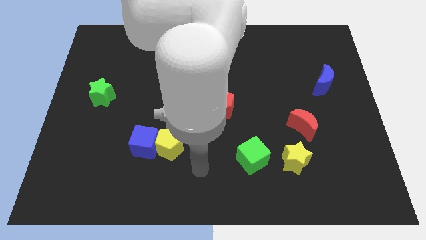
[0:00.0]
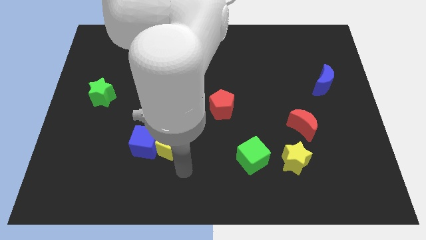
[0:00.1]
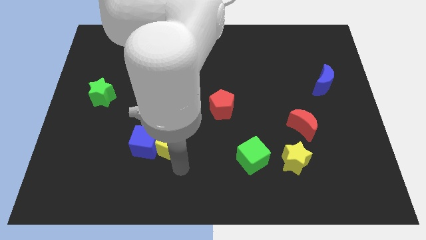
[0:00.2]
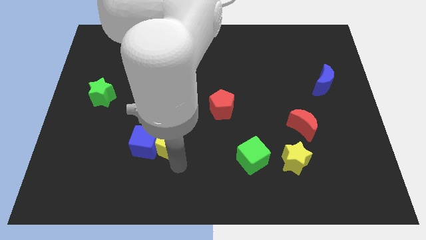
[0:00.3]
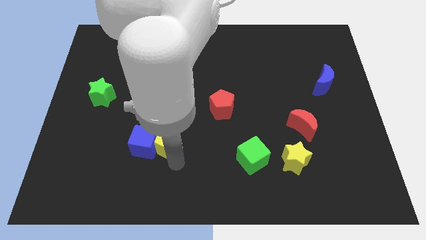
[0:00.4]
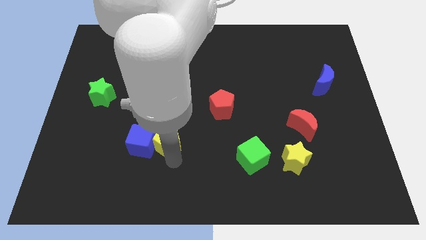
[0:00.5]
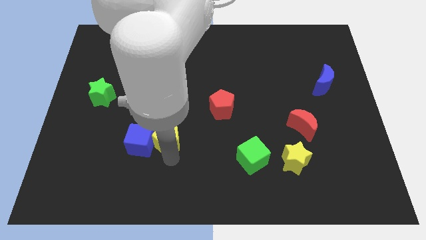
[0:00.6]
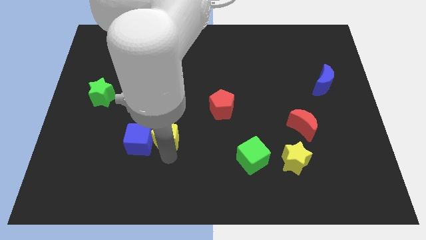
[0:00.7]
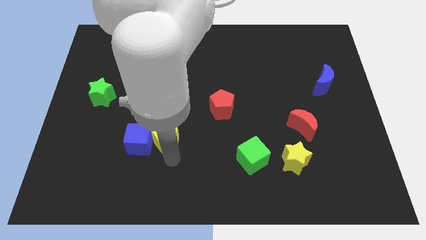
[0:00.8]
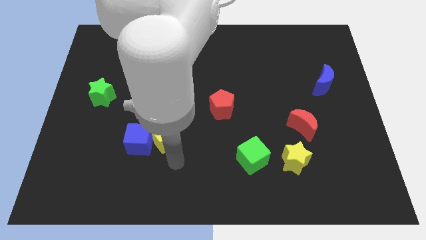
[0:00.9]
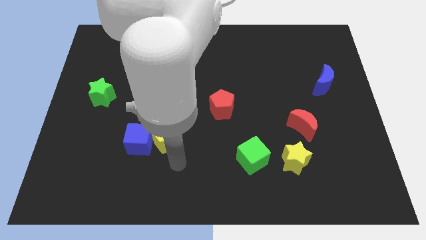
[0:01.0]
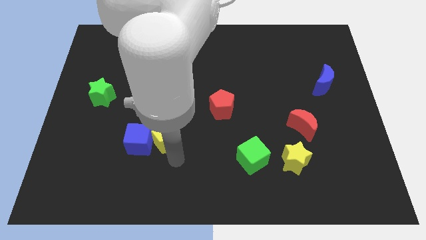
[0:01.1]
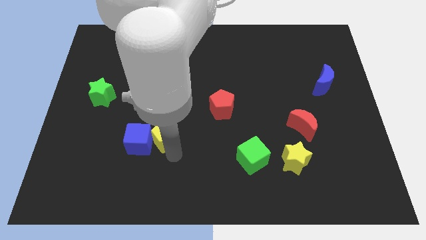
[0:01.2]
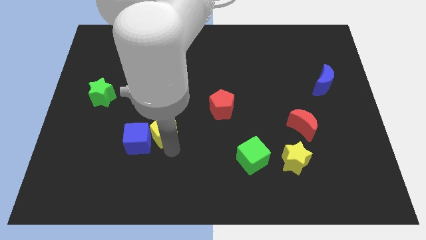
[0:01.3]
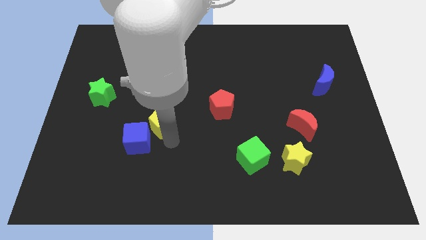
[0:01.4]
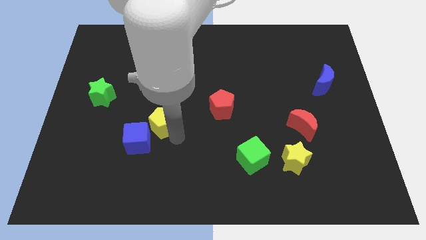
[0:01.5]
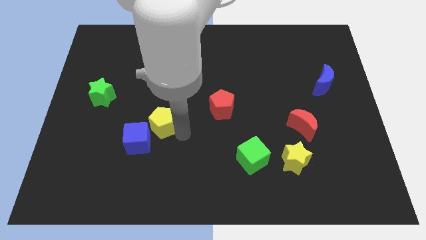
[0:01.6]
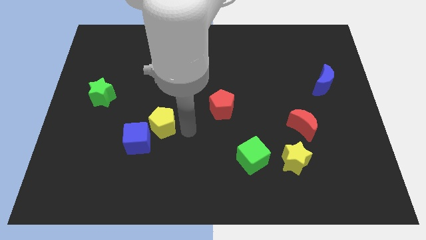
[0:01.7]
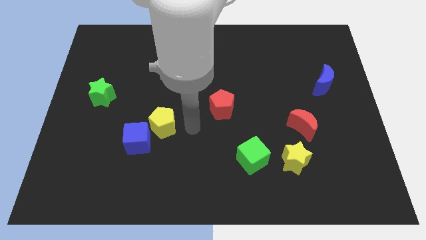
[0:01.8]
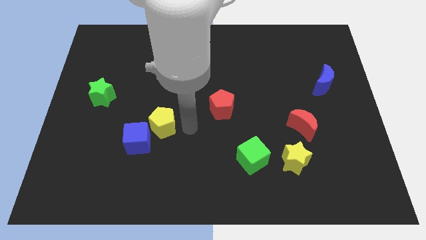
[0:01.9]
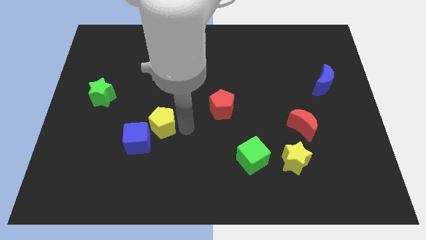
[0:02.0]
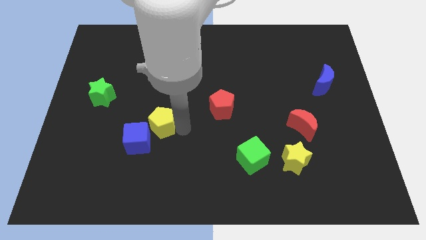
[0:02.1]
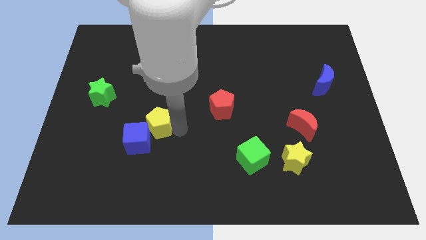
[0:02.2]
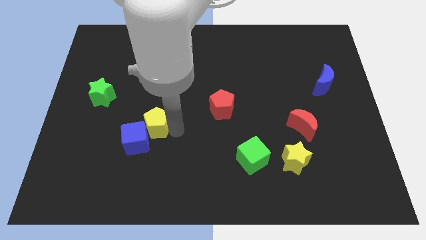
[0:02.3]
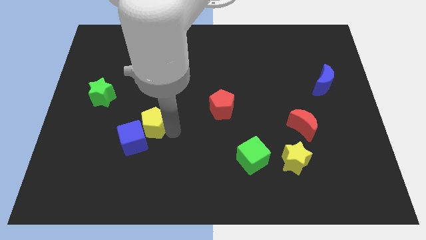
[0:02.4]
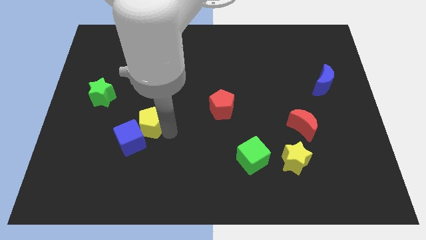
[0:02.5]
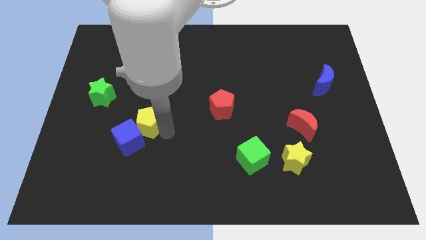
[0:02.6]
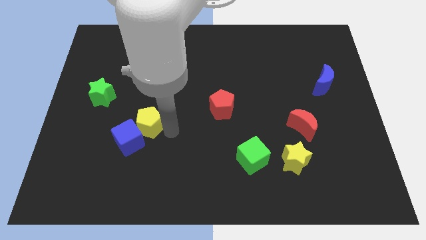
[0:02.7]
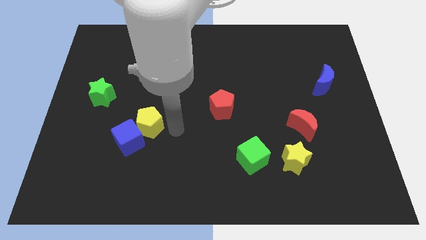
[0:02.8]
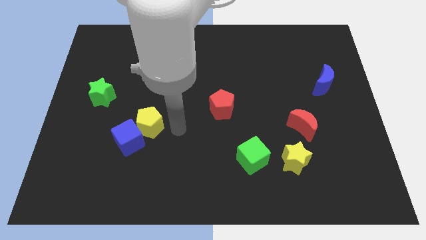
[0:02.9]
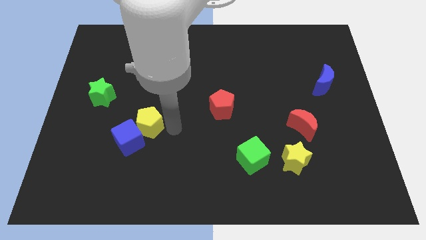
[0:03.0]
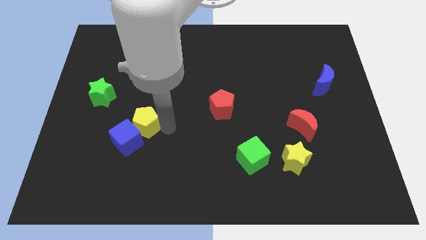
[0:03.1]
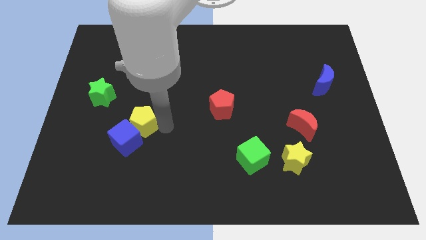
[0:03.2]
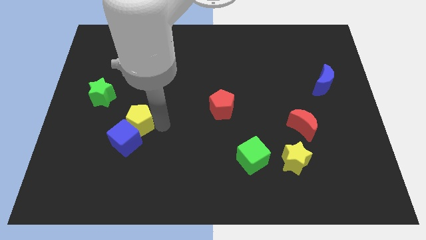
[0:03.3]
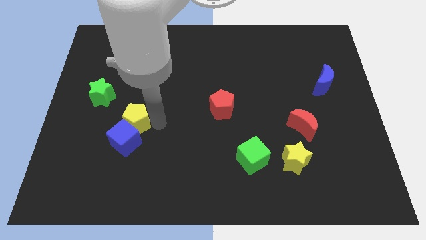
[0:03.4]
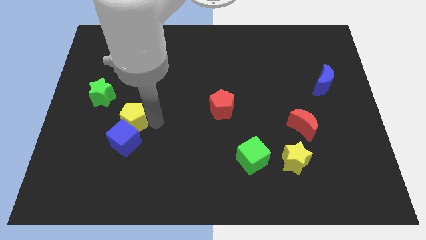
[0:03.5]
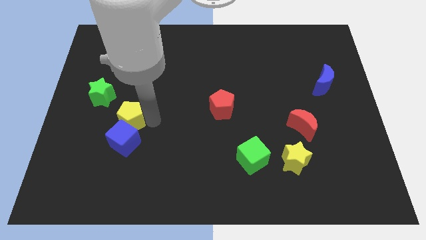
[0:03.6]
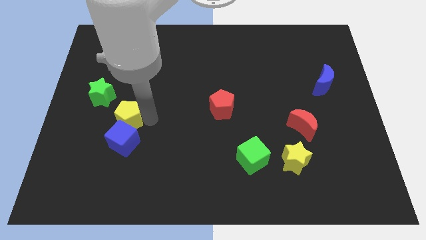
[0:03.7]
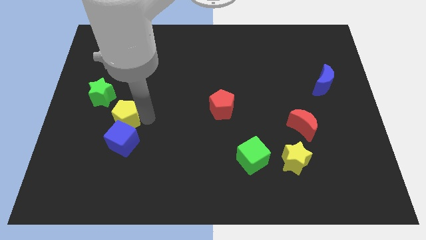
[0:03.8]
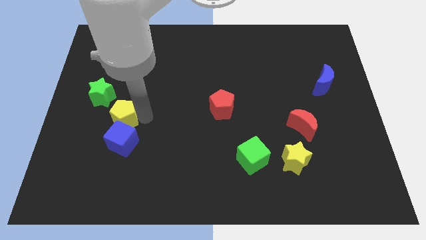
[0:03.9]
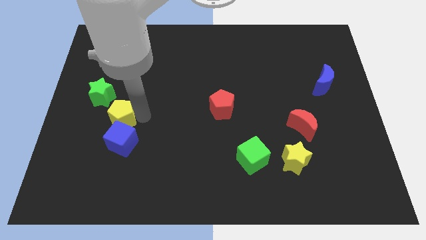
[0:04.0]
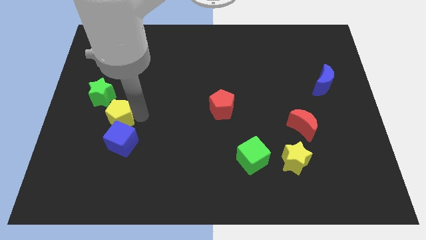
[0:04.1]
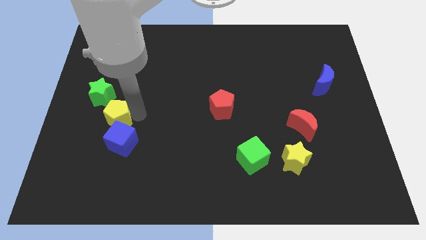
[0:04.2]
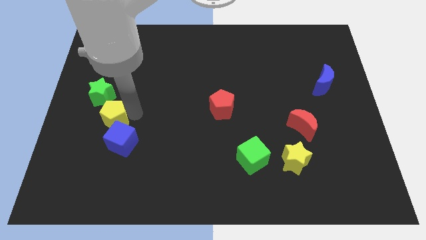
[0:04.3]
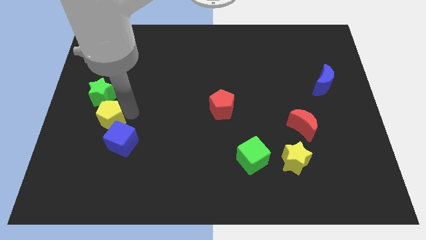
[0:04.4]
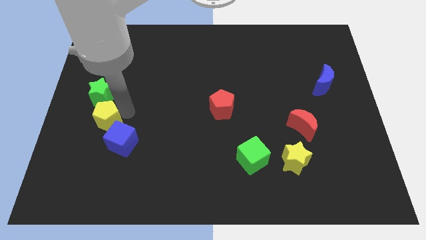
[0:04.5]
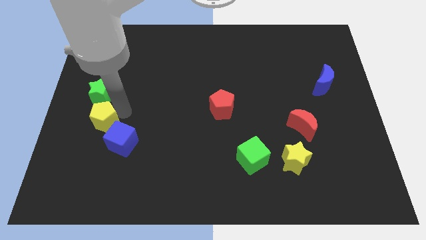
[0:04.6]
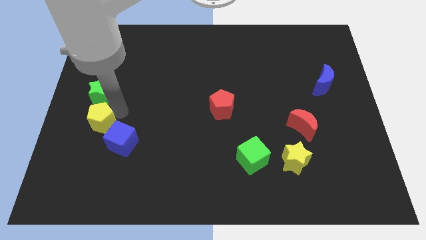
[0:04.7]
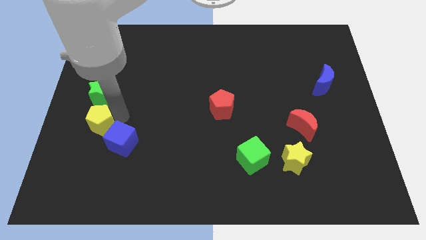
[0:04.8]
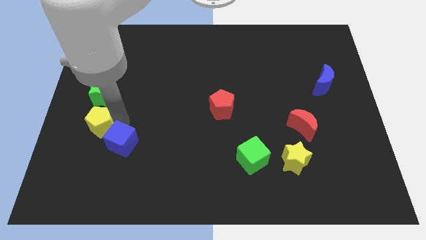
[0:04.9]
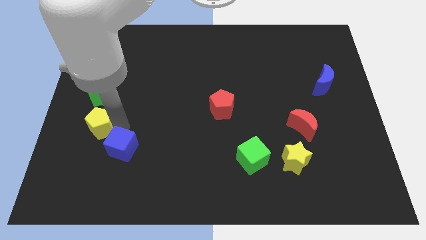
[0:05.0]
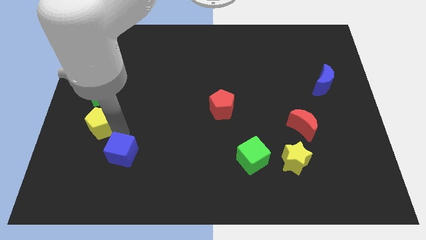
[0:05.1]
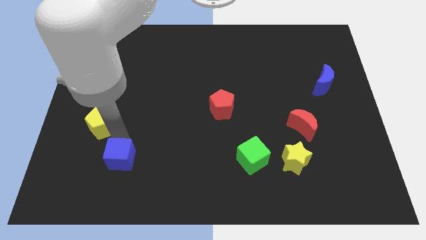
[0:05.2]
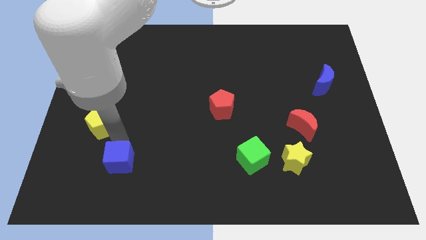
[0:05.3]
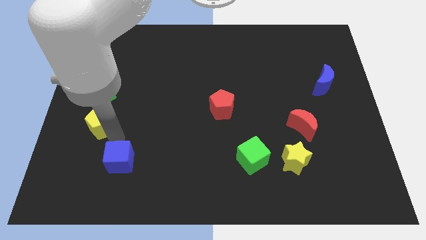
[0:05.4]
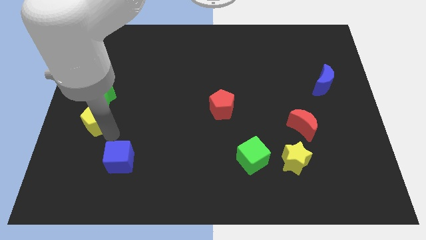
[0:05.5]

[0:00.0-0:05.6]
slide the yellow pentagon to the center left

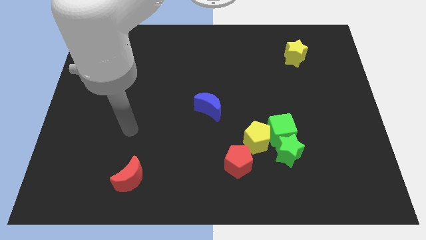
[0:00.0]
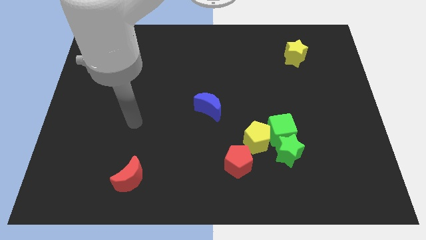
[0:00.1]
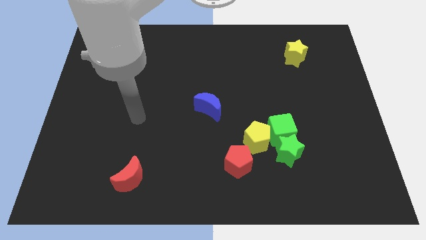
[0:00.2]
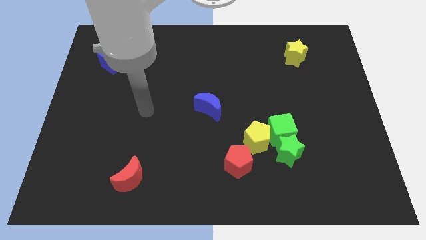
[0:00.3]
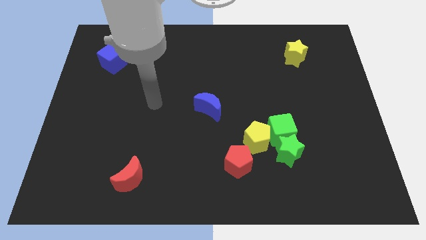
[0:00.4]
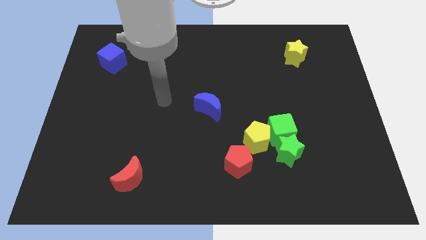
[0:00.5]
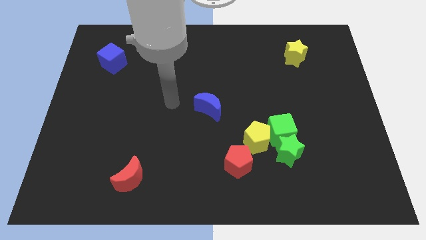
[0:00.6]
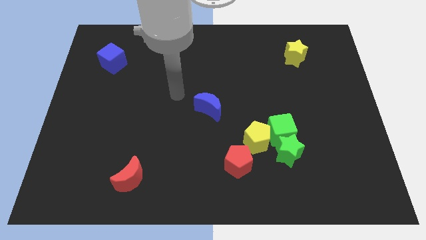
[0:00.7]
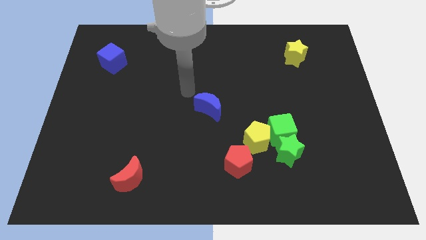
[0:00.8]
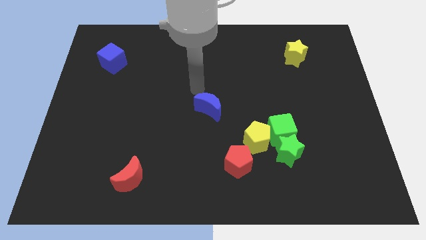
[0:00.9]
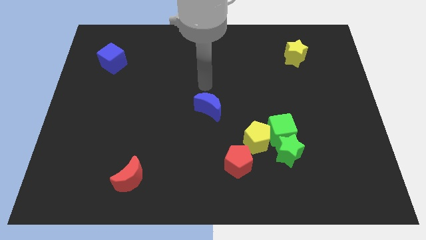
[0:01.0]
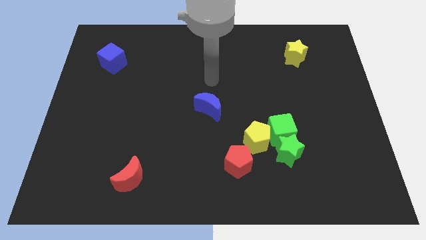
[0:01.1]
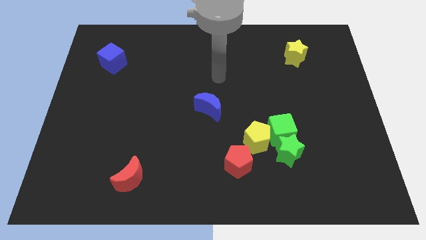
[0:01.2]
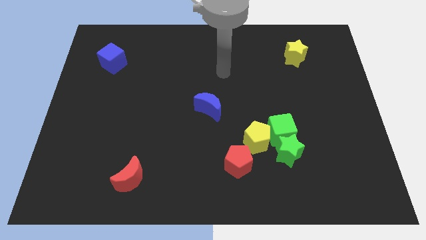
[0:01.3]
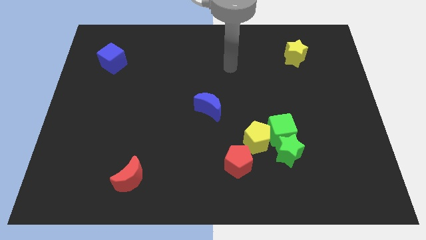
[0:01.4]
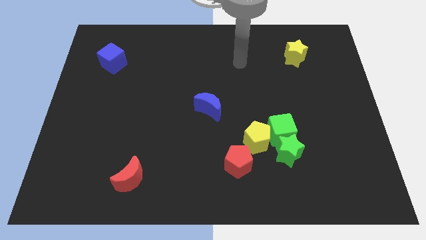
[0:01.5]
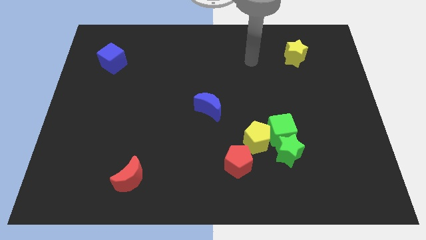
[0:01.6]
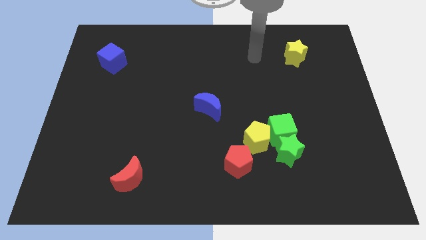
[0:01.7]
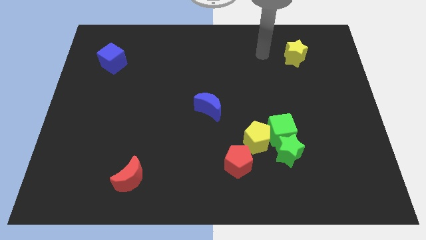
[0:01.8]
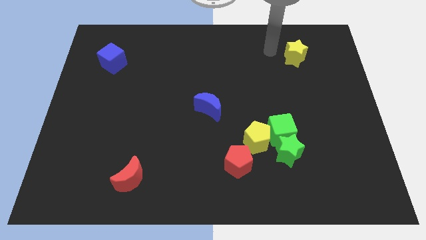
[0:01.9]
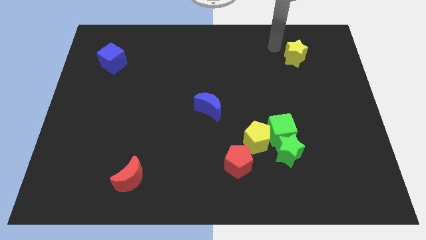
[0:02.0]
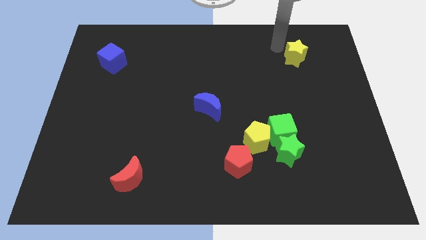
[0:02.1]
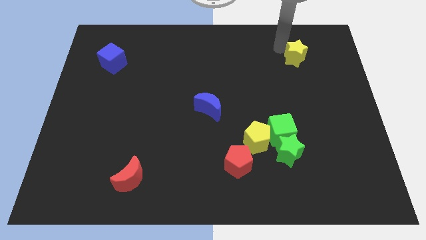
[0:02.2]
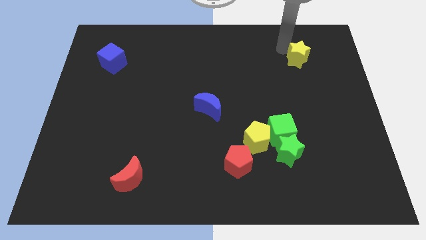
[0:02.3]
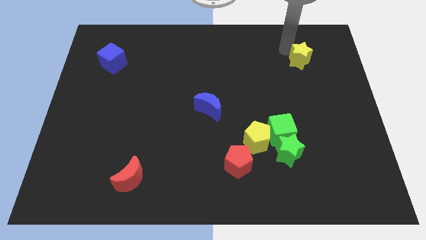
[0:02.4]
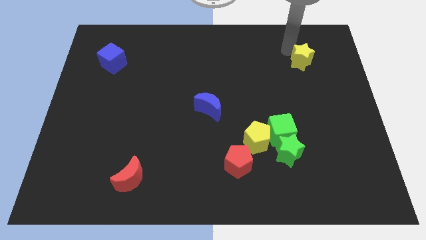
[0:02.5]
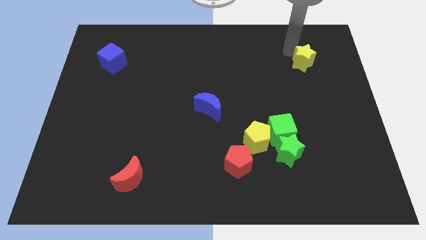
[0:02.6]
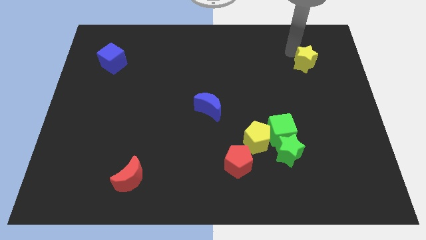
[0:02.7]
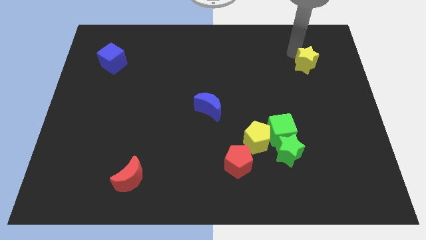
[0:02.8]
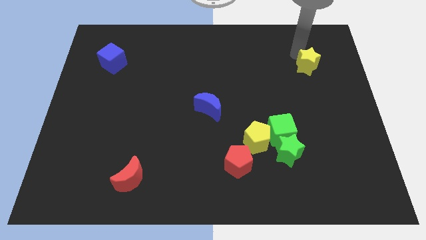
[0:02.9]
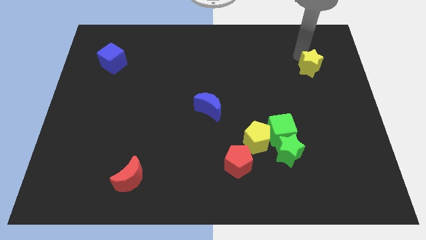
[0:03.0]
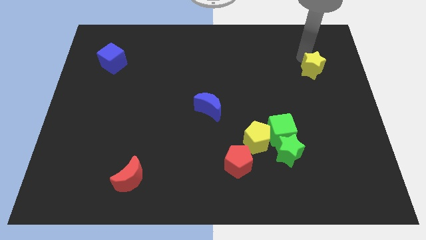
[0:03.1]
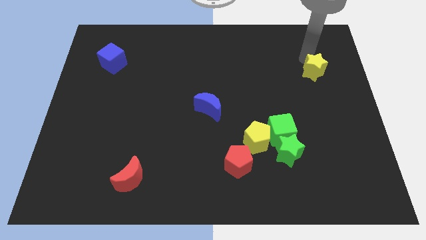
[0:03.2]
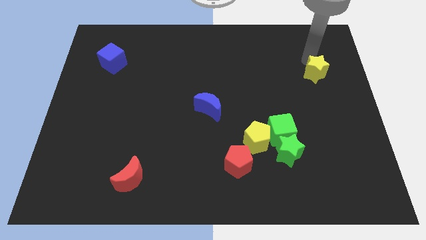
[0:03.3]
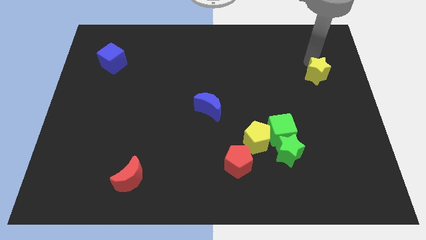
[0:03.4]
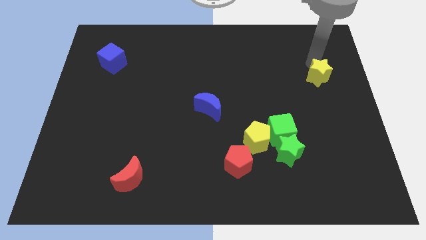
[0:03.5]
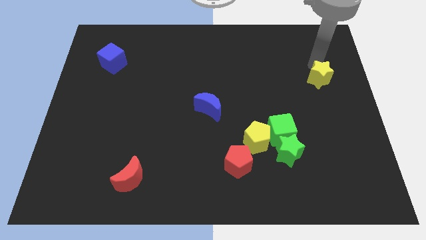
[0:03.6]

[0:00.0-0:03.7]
slide the yellow star to the center right
